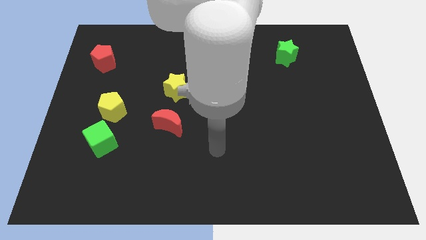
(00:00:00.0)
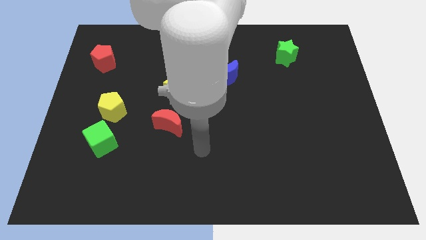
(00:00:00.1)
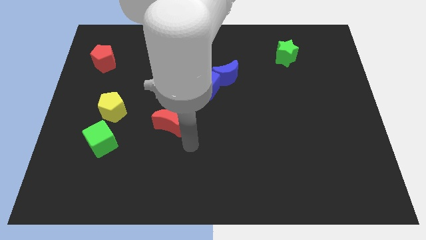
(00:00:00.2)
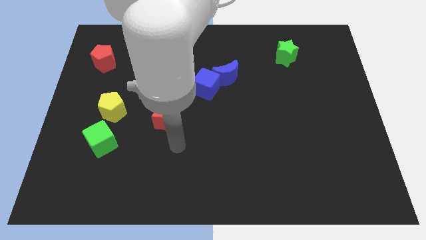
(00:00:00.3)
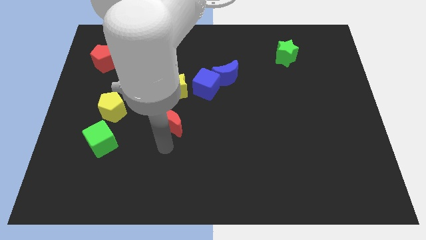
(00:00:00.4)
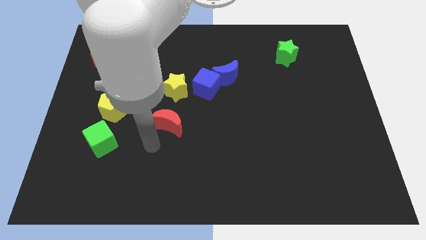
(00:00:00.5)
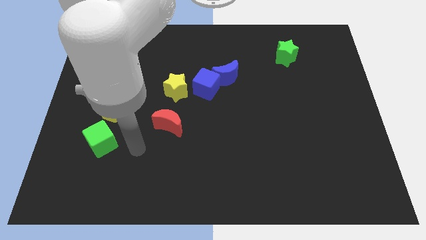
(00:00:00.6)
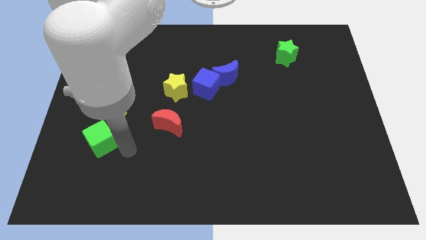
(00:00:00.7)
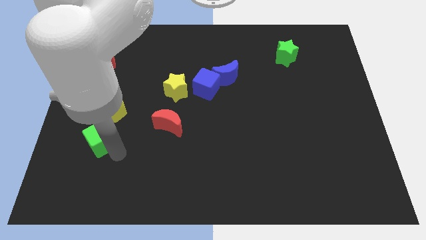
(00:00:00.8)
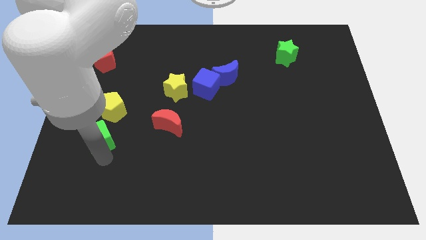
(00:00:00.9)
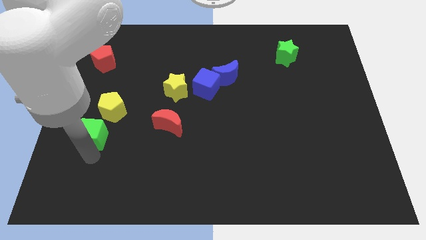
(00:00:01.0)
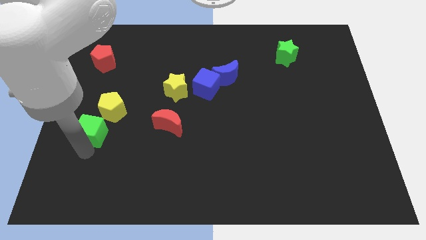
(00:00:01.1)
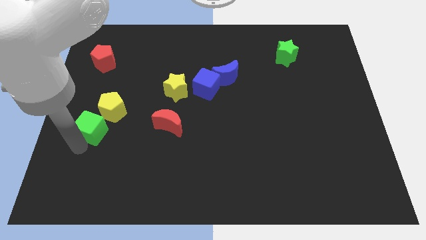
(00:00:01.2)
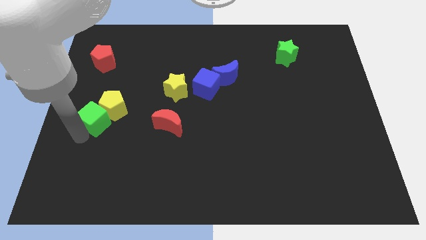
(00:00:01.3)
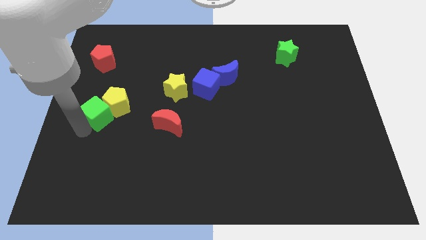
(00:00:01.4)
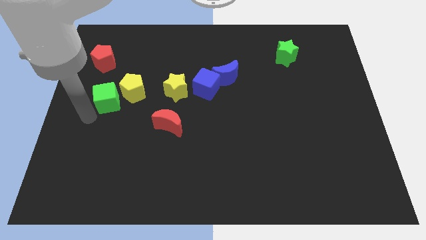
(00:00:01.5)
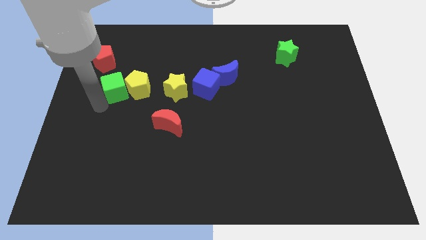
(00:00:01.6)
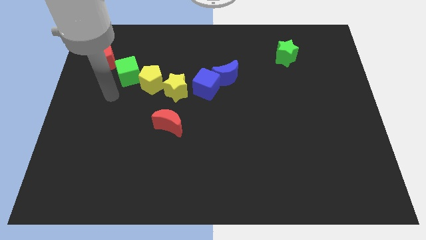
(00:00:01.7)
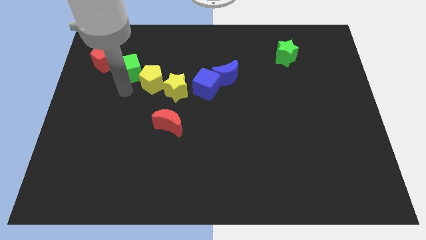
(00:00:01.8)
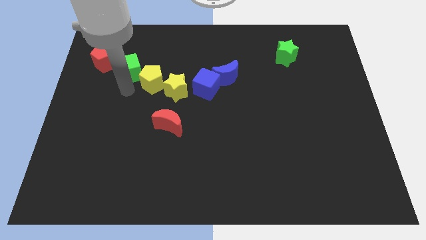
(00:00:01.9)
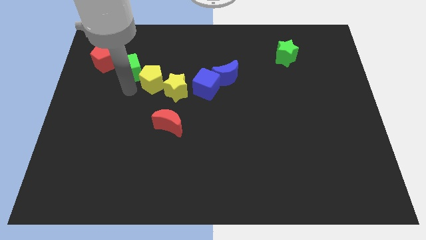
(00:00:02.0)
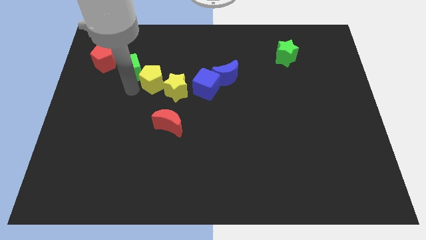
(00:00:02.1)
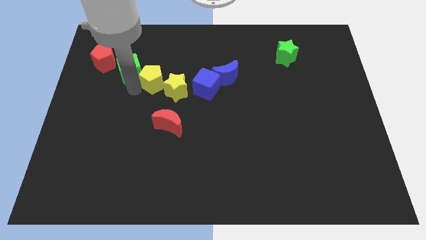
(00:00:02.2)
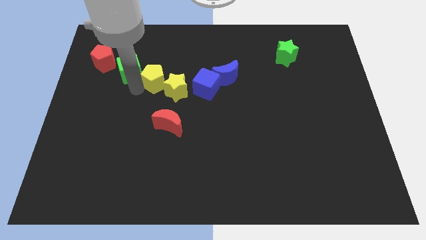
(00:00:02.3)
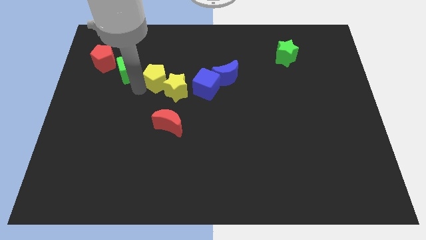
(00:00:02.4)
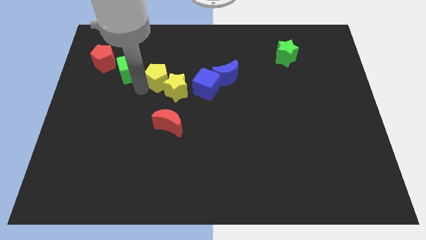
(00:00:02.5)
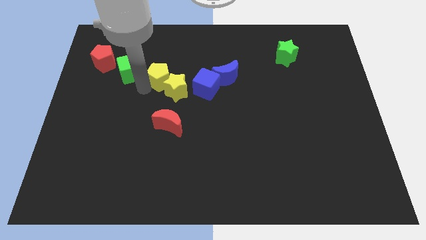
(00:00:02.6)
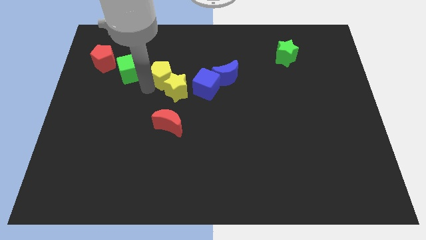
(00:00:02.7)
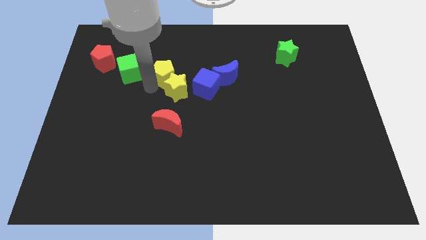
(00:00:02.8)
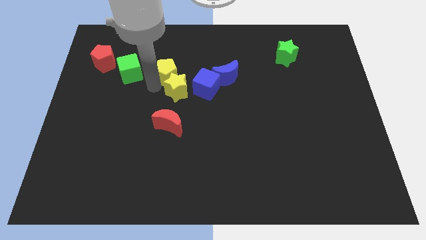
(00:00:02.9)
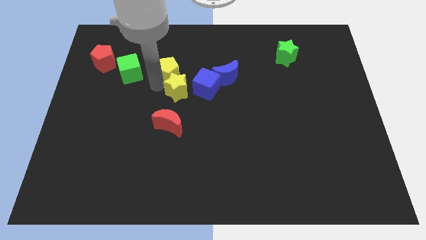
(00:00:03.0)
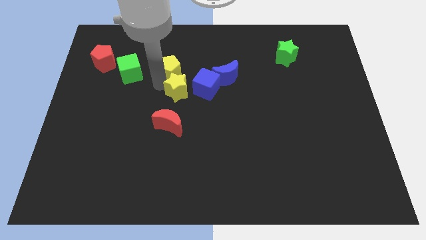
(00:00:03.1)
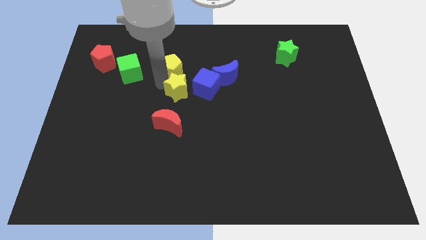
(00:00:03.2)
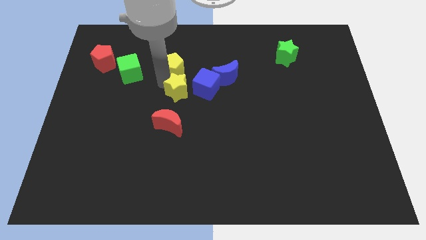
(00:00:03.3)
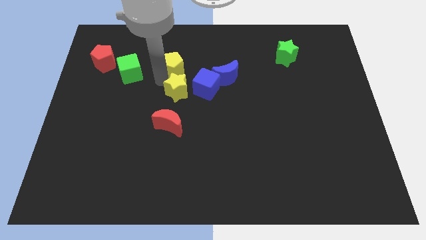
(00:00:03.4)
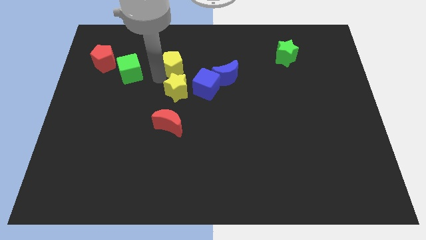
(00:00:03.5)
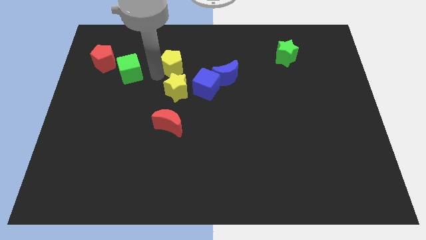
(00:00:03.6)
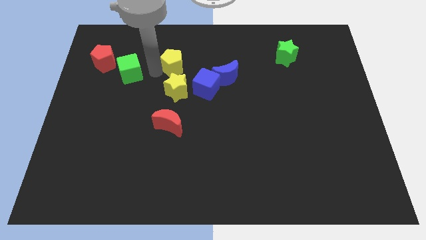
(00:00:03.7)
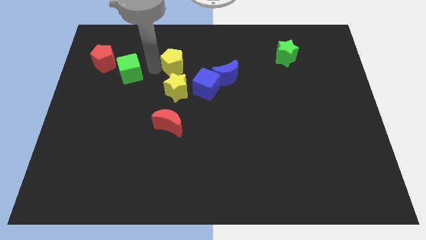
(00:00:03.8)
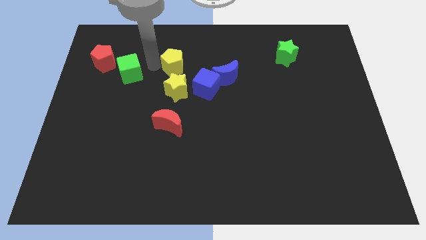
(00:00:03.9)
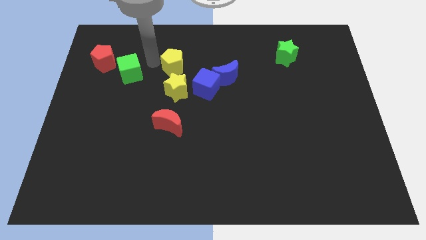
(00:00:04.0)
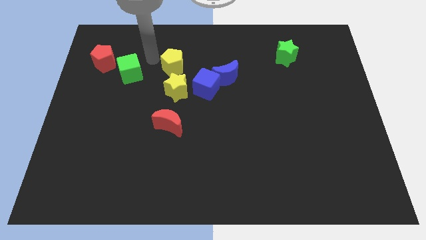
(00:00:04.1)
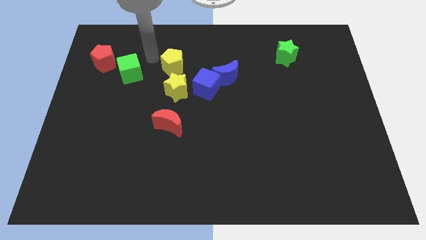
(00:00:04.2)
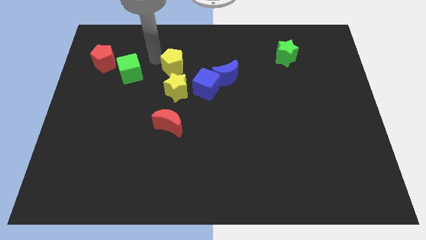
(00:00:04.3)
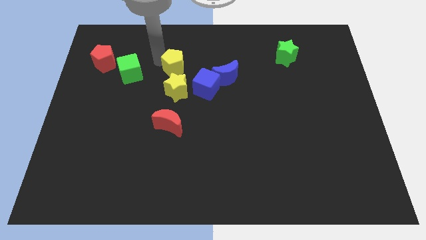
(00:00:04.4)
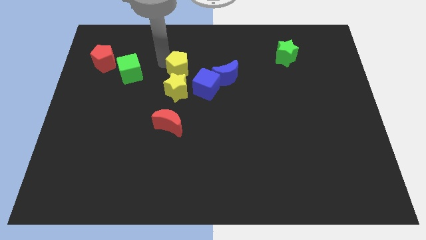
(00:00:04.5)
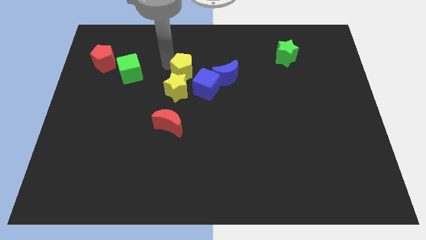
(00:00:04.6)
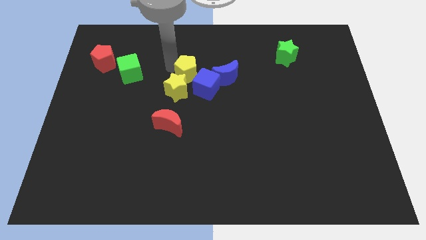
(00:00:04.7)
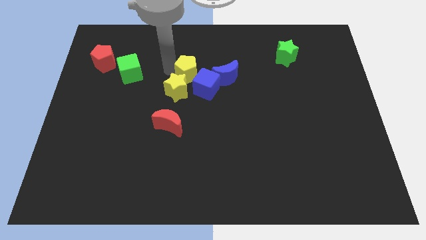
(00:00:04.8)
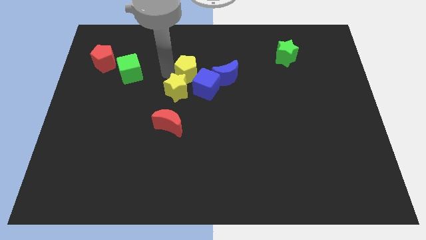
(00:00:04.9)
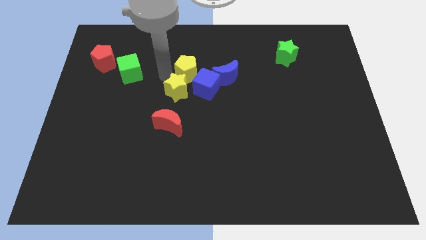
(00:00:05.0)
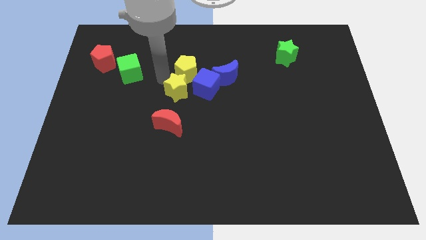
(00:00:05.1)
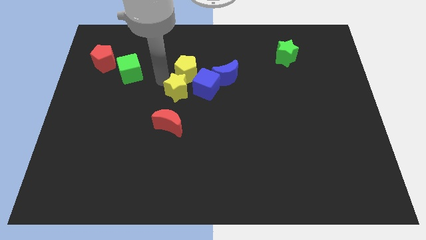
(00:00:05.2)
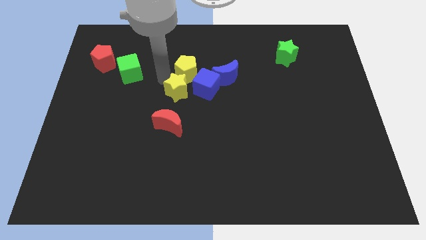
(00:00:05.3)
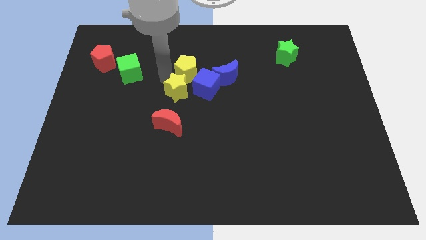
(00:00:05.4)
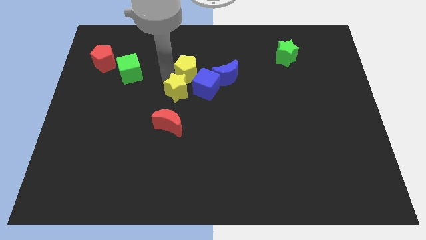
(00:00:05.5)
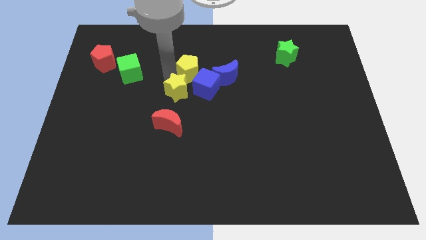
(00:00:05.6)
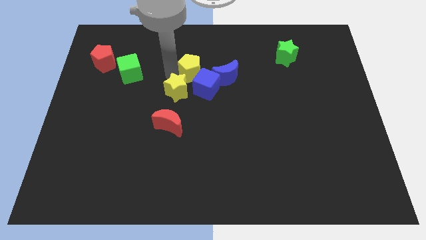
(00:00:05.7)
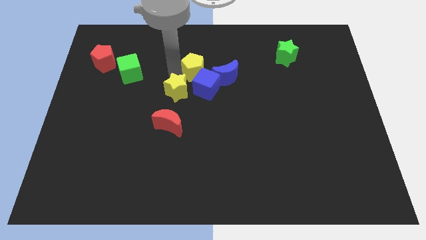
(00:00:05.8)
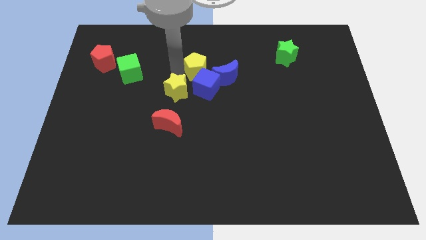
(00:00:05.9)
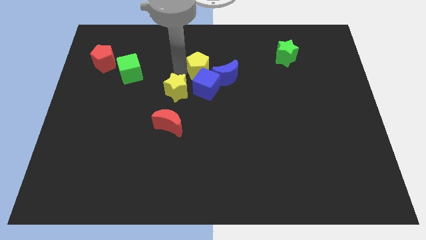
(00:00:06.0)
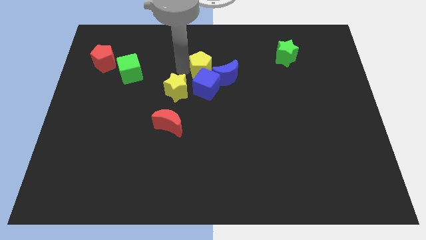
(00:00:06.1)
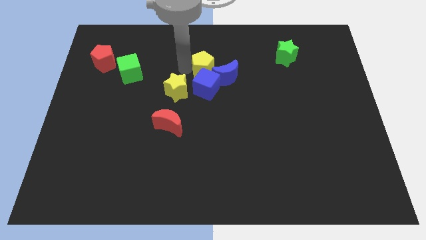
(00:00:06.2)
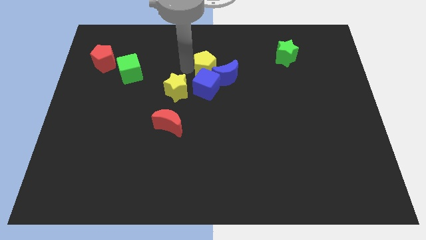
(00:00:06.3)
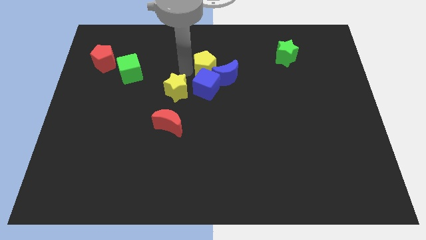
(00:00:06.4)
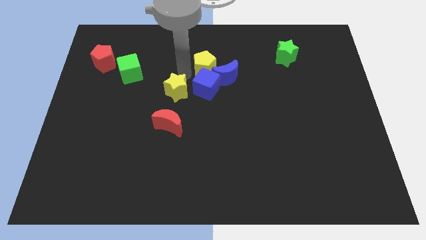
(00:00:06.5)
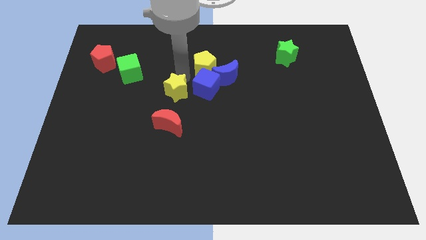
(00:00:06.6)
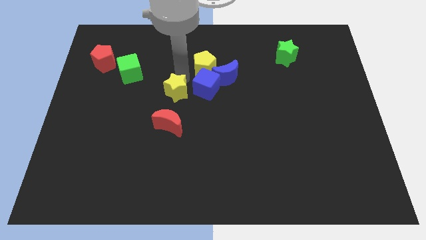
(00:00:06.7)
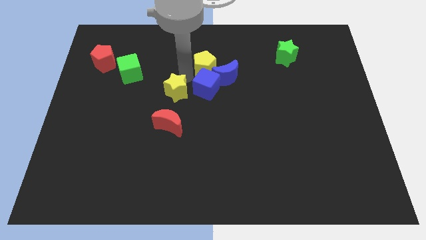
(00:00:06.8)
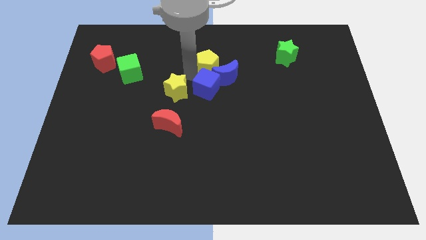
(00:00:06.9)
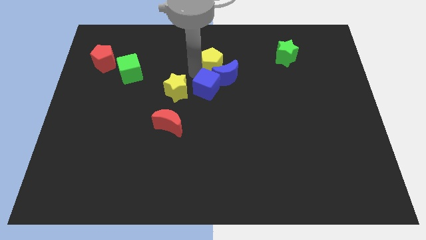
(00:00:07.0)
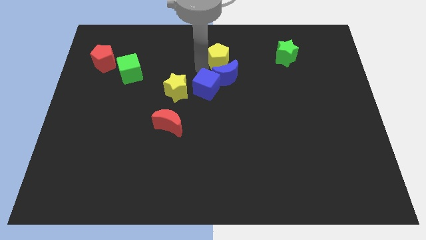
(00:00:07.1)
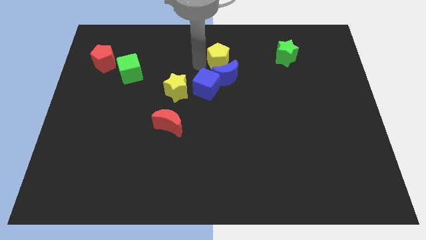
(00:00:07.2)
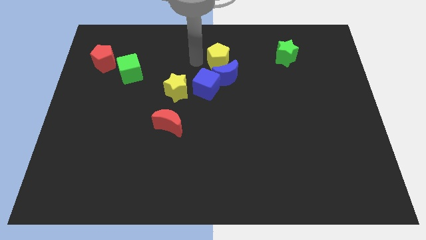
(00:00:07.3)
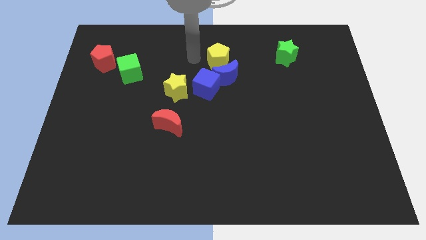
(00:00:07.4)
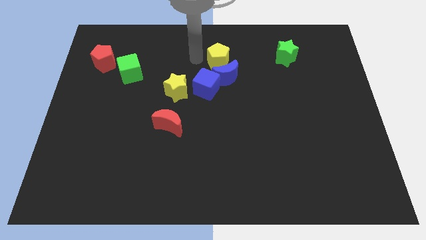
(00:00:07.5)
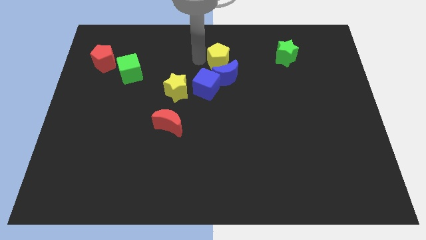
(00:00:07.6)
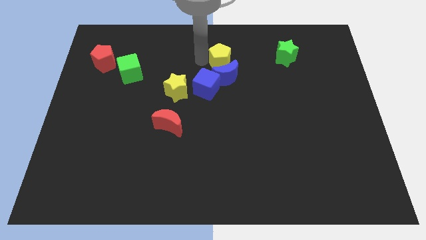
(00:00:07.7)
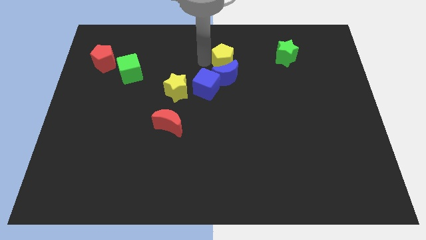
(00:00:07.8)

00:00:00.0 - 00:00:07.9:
put the yellow pentagon to the top right side of the blue moon
